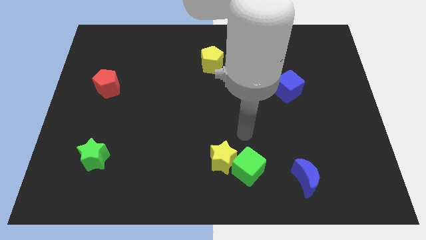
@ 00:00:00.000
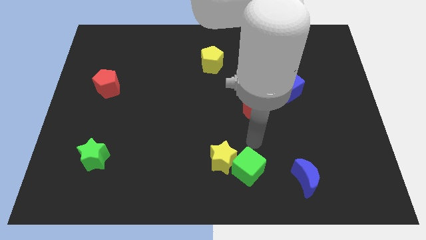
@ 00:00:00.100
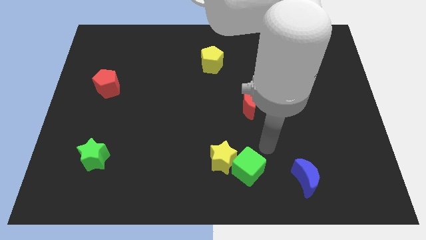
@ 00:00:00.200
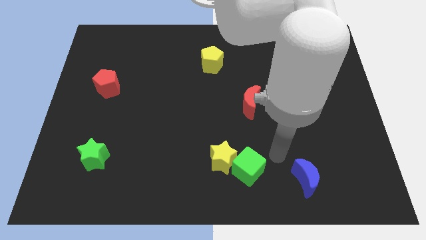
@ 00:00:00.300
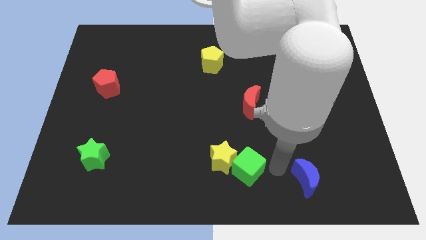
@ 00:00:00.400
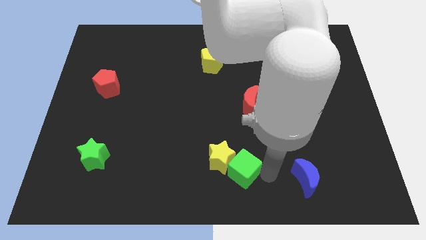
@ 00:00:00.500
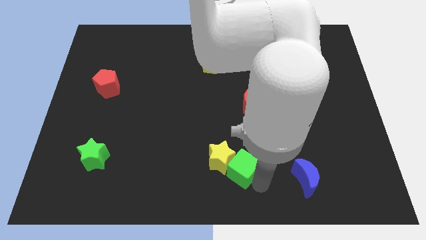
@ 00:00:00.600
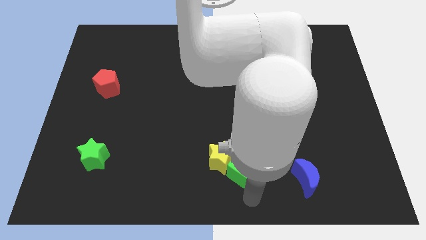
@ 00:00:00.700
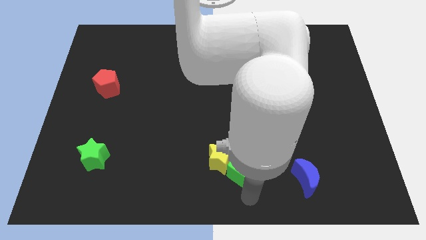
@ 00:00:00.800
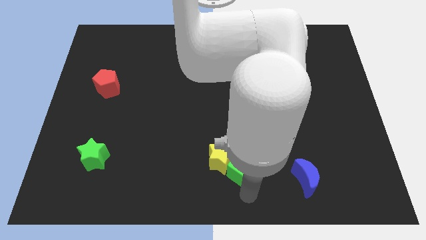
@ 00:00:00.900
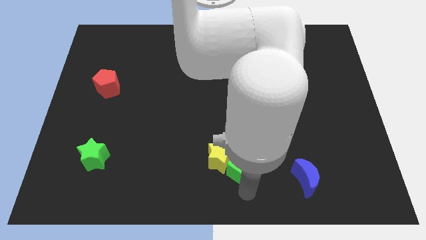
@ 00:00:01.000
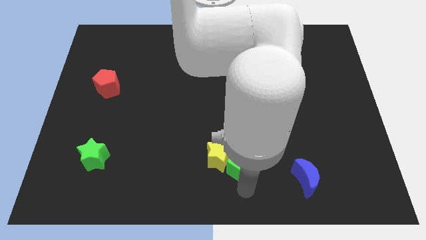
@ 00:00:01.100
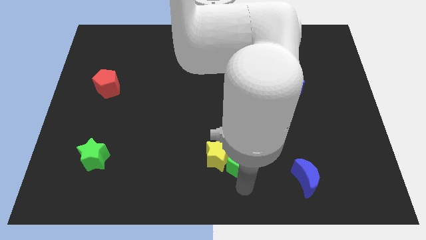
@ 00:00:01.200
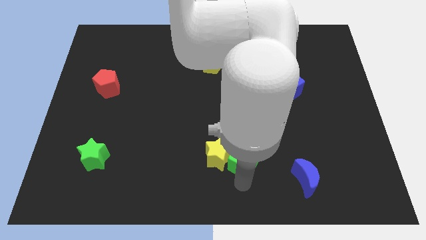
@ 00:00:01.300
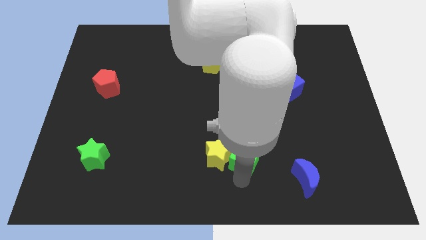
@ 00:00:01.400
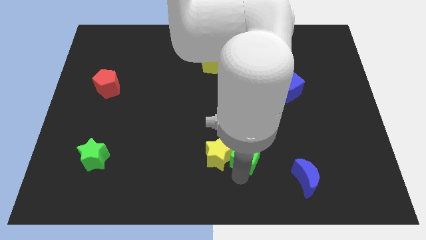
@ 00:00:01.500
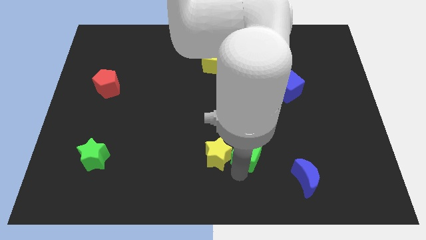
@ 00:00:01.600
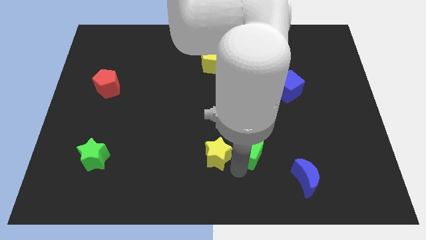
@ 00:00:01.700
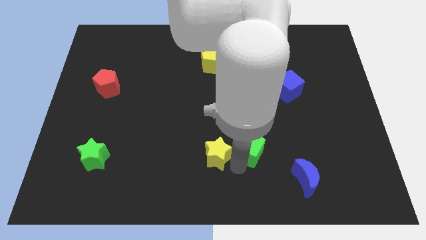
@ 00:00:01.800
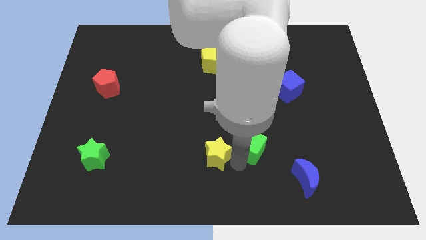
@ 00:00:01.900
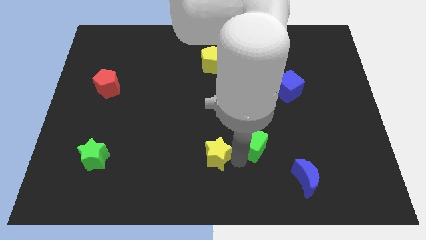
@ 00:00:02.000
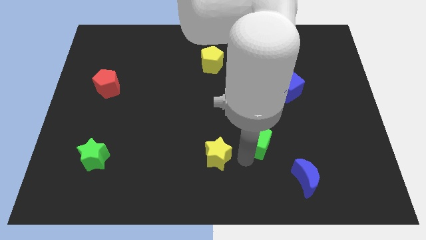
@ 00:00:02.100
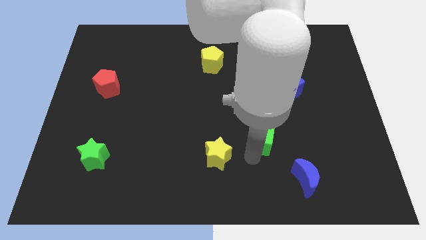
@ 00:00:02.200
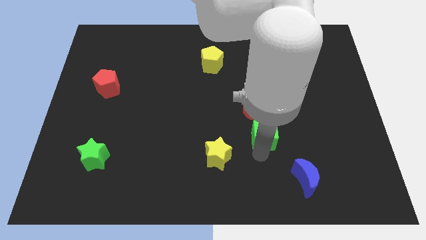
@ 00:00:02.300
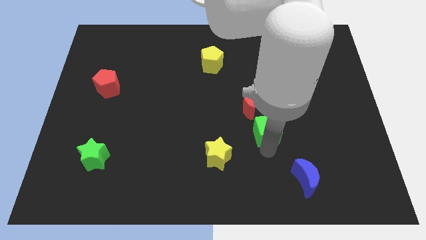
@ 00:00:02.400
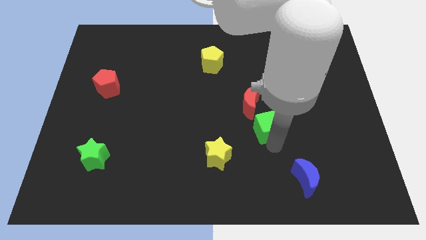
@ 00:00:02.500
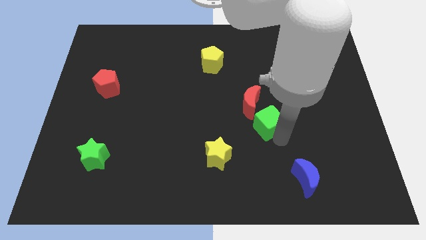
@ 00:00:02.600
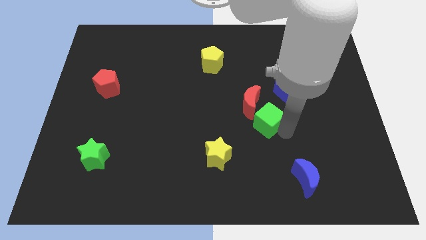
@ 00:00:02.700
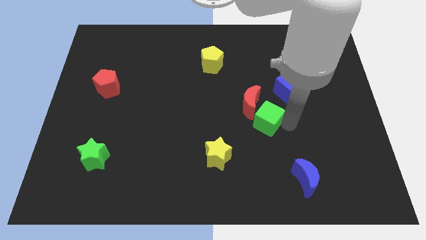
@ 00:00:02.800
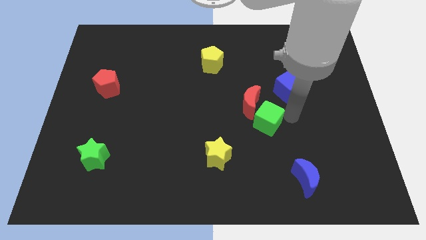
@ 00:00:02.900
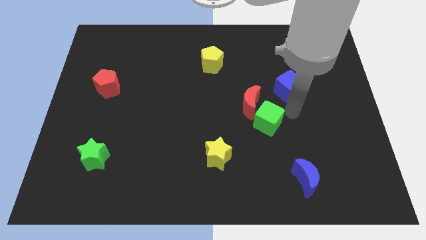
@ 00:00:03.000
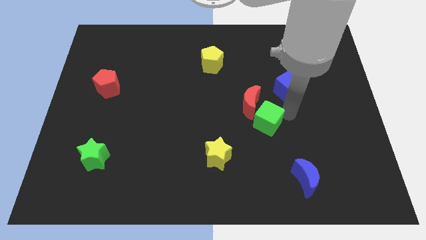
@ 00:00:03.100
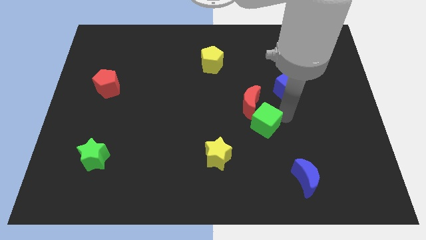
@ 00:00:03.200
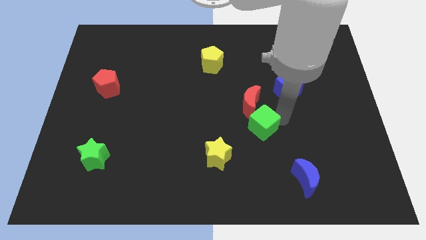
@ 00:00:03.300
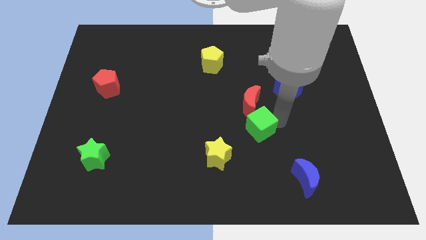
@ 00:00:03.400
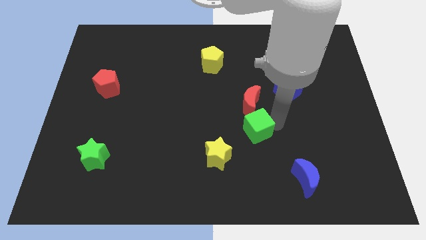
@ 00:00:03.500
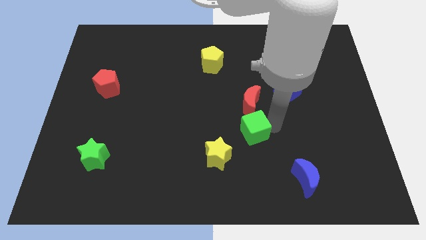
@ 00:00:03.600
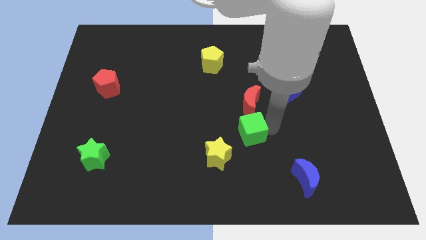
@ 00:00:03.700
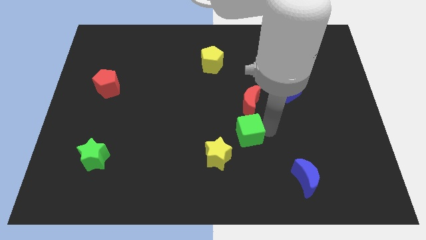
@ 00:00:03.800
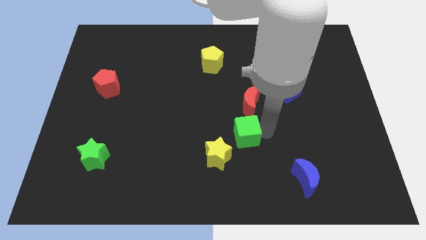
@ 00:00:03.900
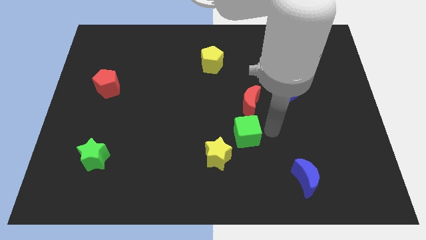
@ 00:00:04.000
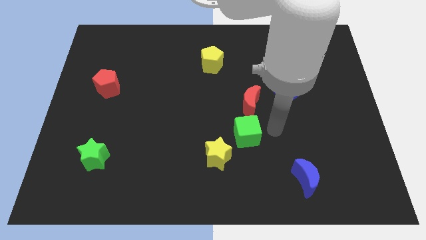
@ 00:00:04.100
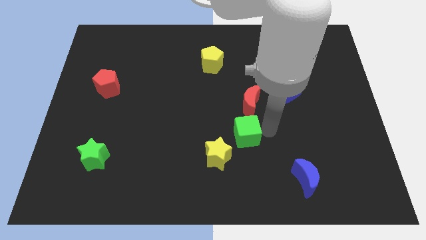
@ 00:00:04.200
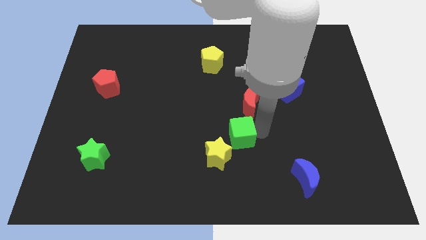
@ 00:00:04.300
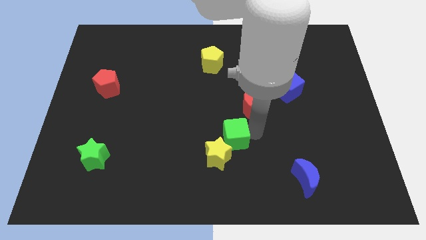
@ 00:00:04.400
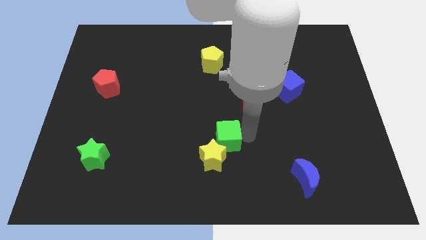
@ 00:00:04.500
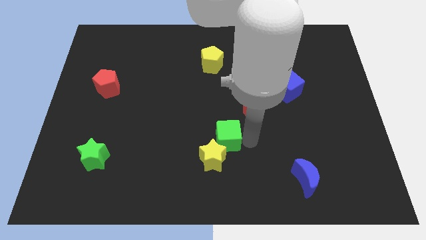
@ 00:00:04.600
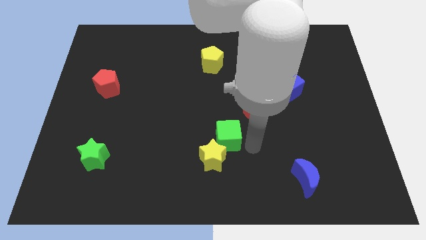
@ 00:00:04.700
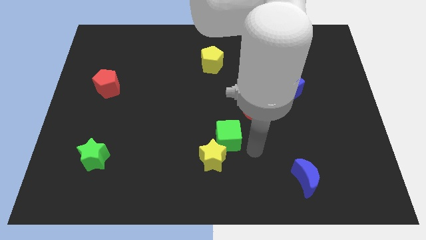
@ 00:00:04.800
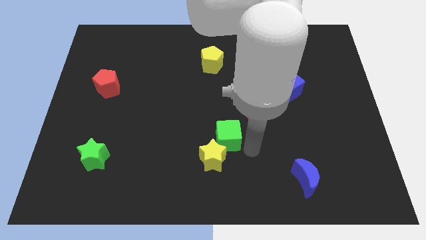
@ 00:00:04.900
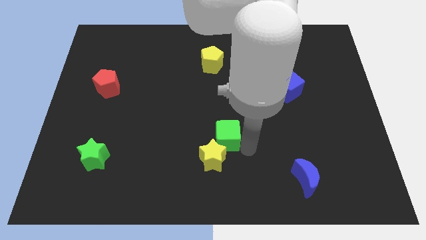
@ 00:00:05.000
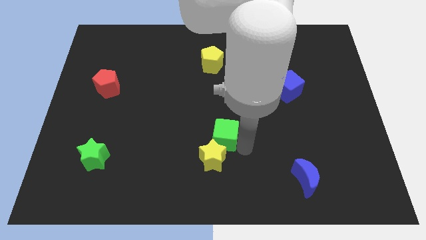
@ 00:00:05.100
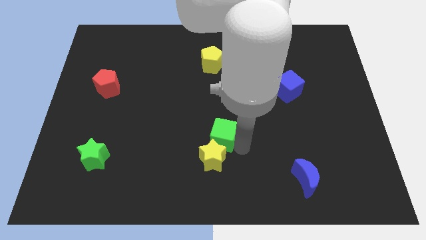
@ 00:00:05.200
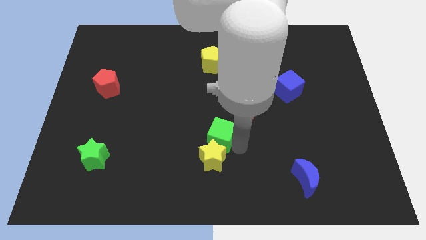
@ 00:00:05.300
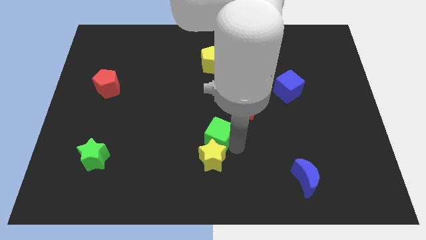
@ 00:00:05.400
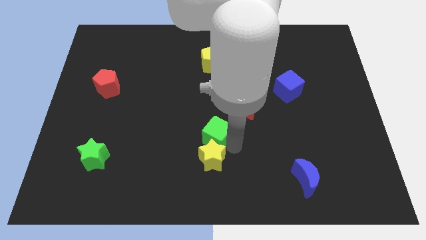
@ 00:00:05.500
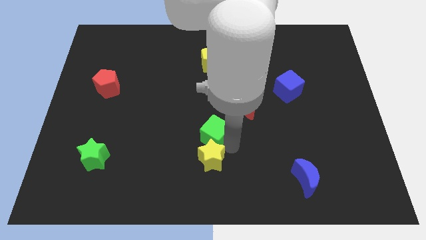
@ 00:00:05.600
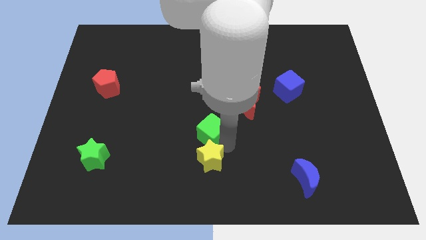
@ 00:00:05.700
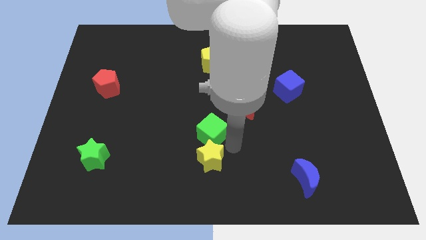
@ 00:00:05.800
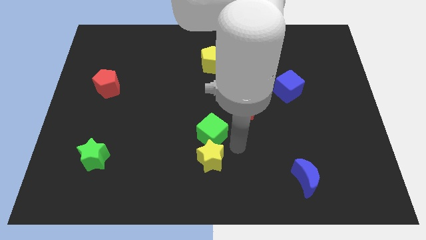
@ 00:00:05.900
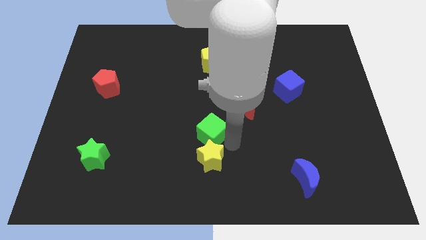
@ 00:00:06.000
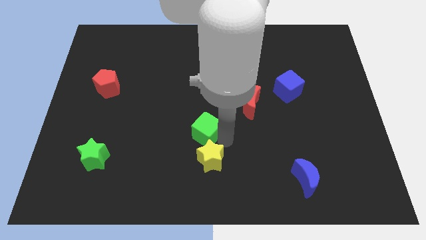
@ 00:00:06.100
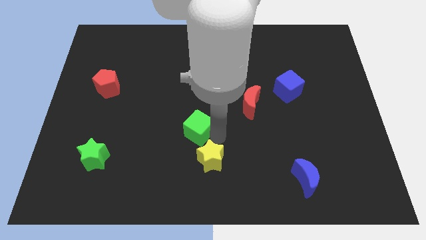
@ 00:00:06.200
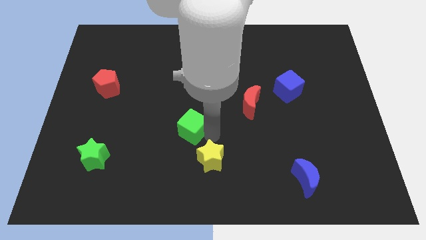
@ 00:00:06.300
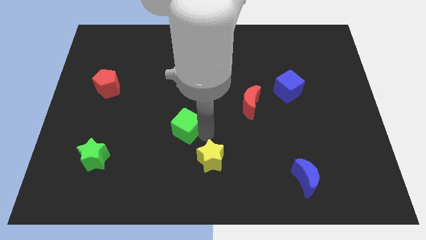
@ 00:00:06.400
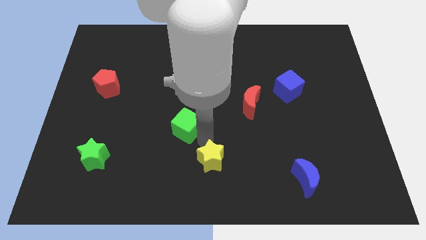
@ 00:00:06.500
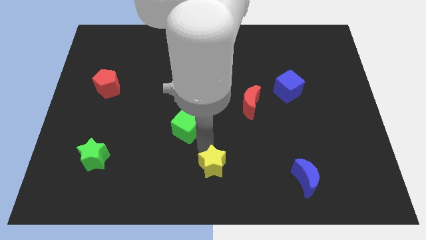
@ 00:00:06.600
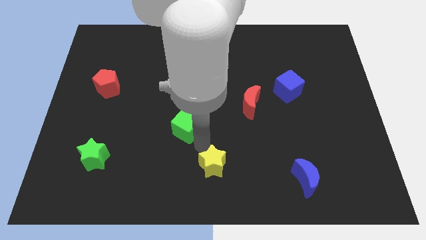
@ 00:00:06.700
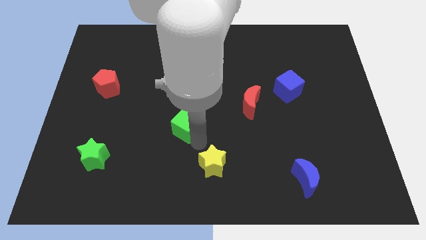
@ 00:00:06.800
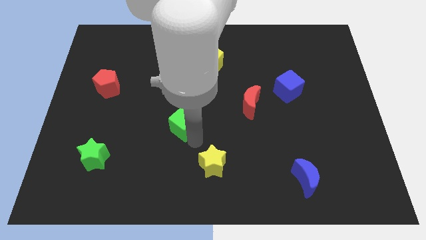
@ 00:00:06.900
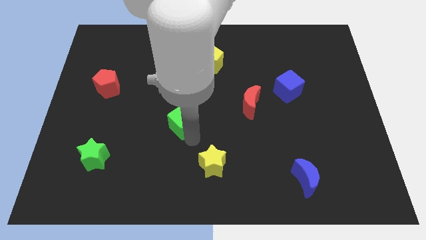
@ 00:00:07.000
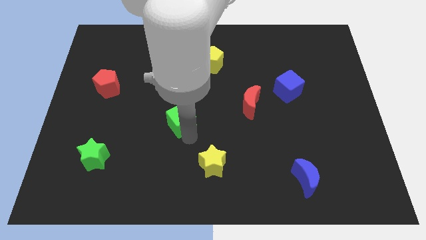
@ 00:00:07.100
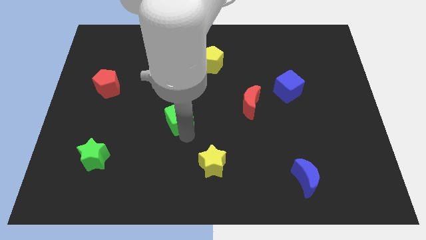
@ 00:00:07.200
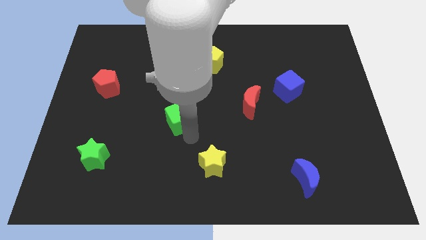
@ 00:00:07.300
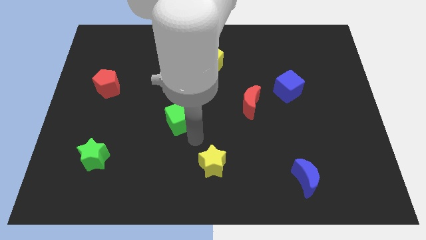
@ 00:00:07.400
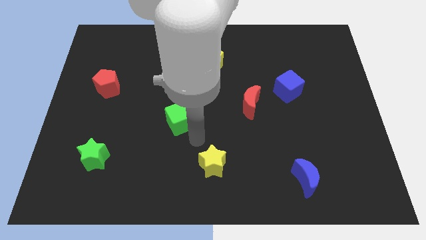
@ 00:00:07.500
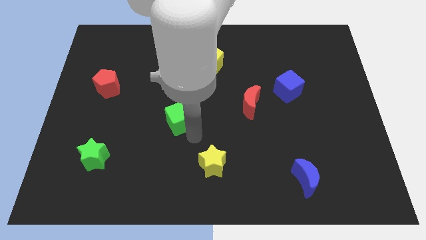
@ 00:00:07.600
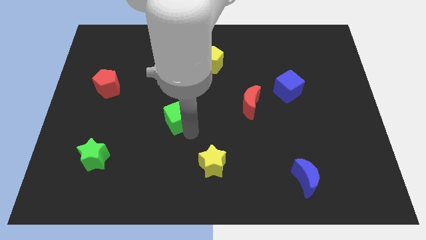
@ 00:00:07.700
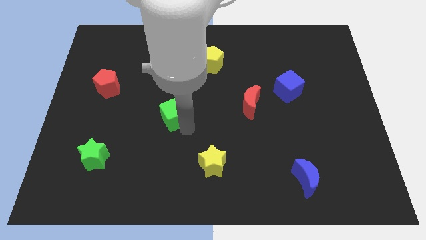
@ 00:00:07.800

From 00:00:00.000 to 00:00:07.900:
slide the green cube up and to the left
